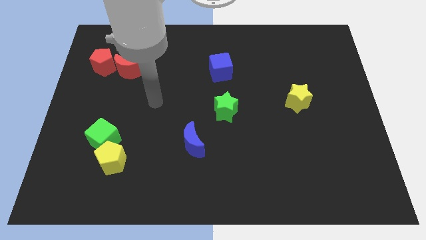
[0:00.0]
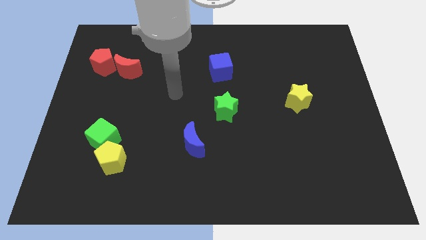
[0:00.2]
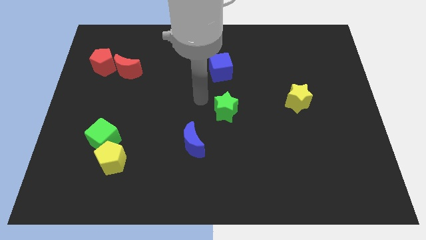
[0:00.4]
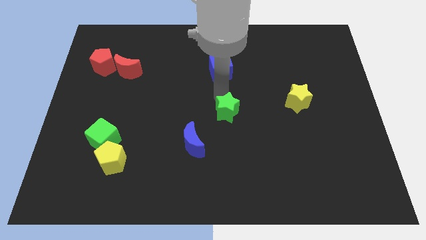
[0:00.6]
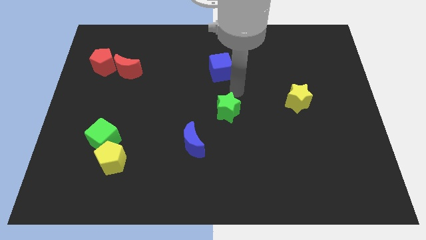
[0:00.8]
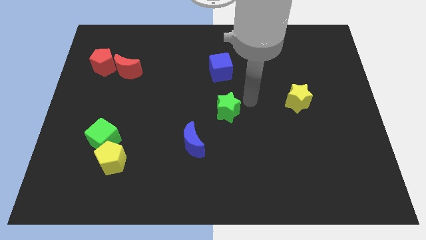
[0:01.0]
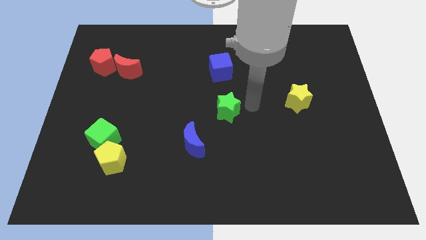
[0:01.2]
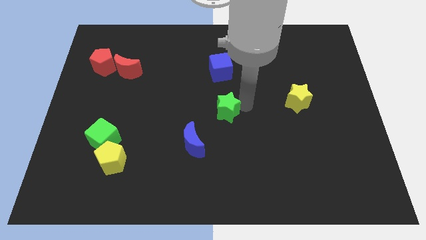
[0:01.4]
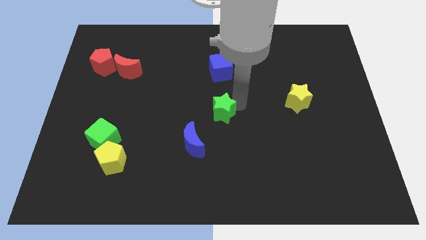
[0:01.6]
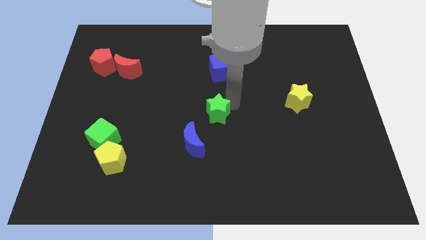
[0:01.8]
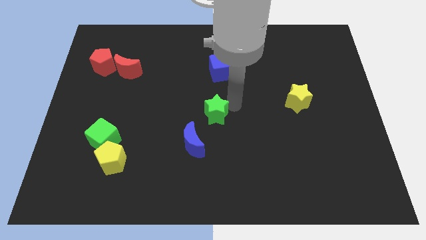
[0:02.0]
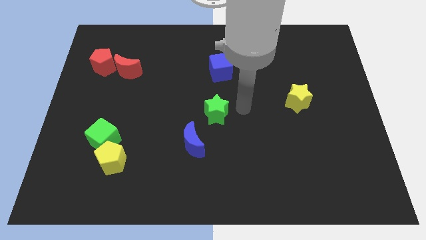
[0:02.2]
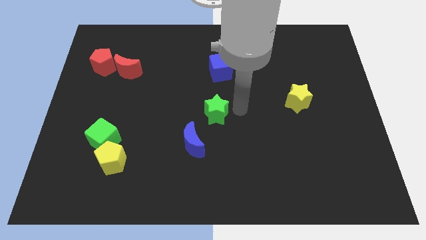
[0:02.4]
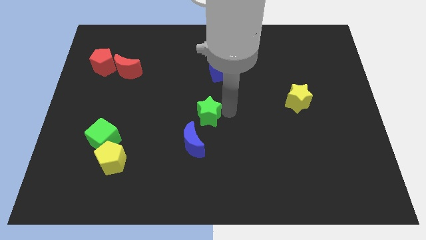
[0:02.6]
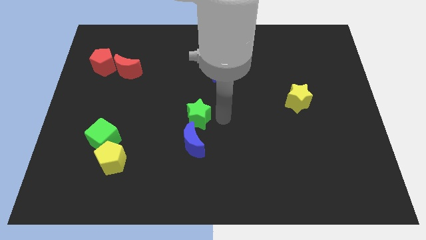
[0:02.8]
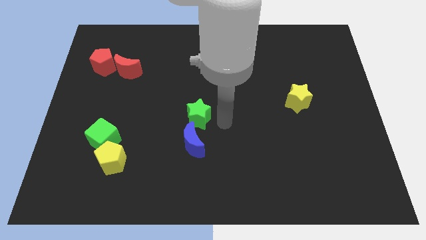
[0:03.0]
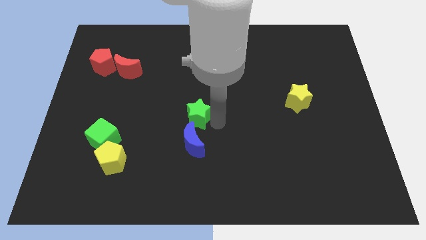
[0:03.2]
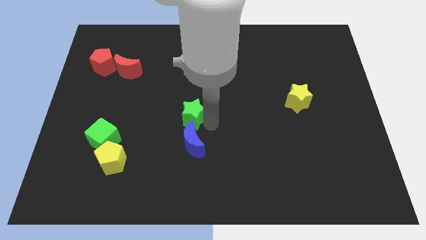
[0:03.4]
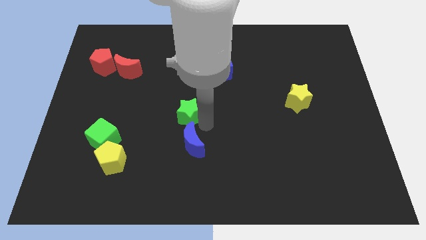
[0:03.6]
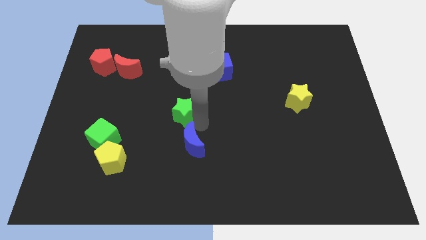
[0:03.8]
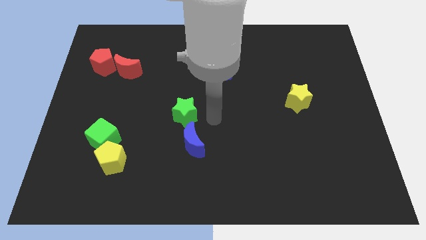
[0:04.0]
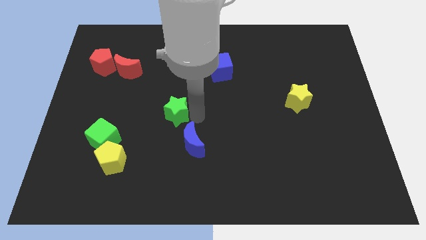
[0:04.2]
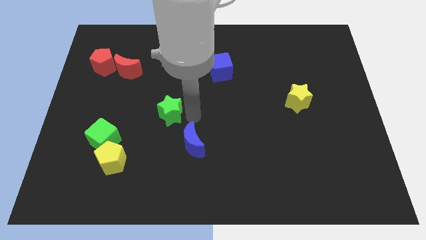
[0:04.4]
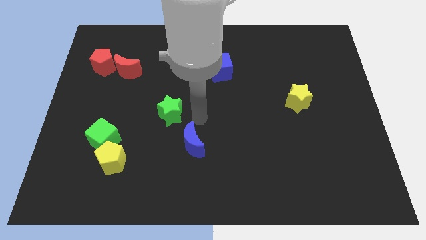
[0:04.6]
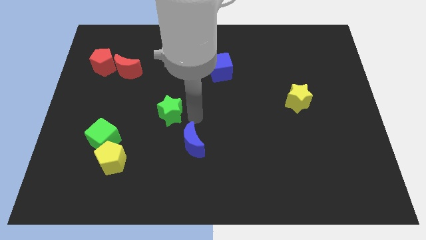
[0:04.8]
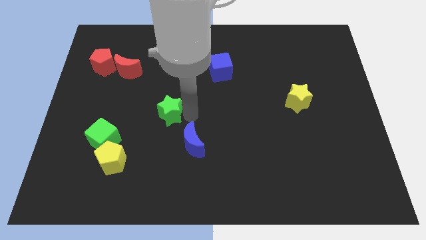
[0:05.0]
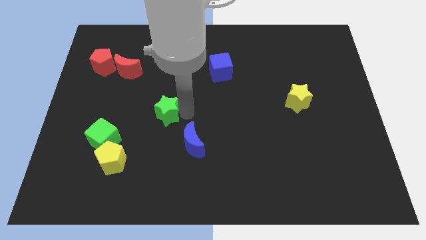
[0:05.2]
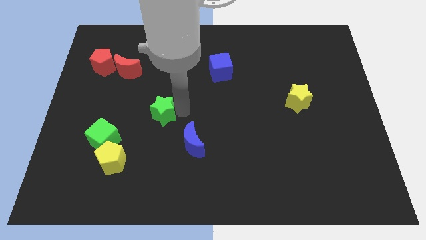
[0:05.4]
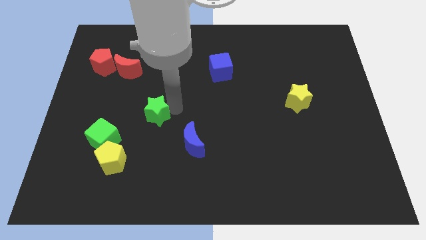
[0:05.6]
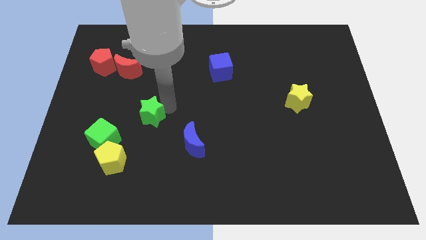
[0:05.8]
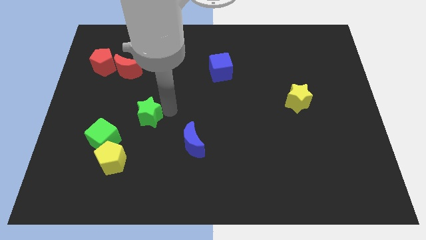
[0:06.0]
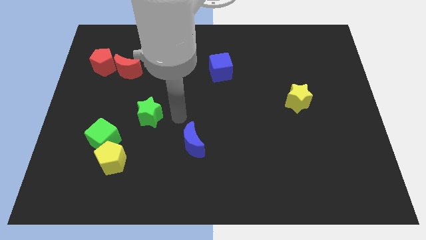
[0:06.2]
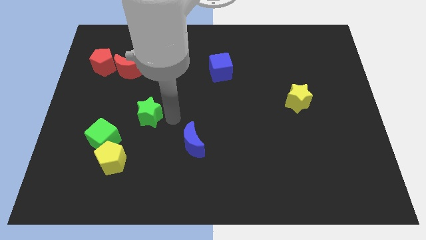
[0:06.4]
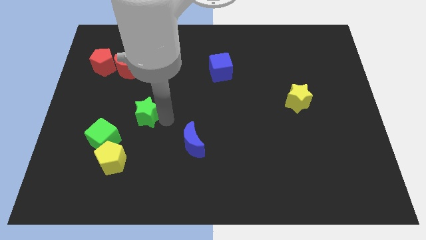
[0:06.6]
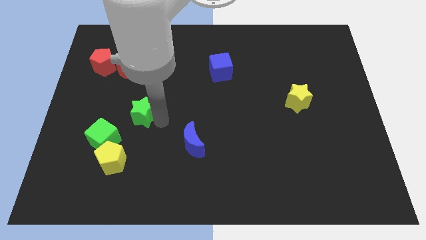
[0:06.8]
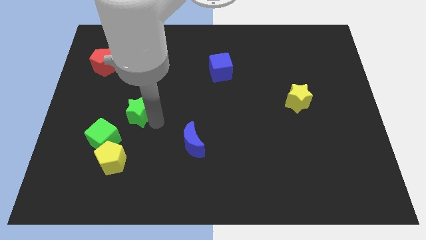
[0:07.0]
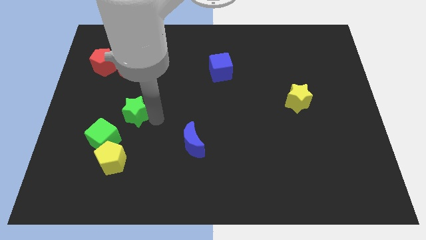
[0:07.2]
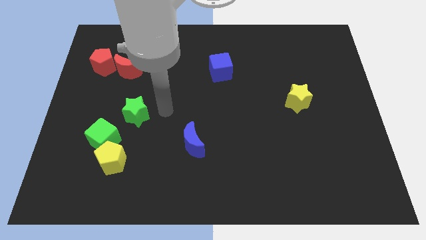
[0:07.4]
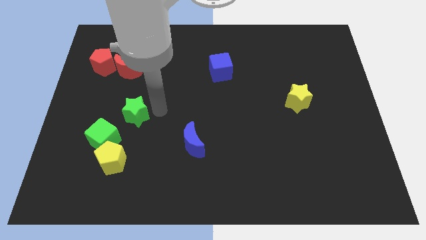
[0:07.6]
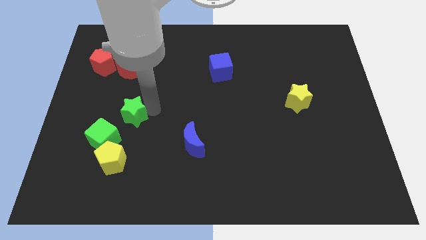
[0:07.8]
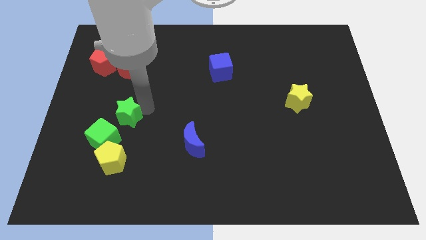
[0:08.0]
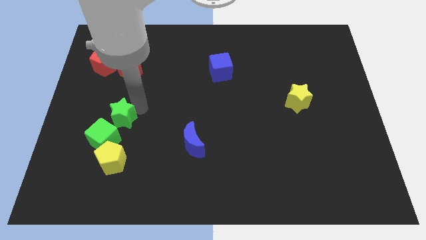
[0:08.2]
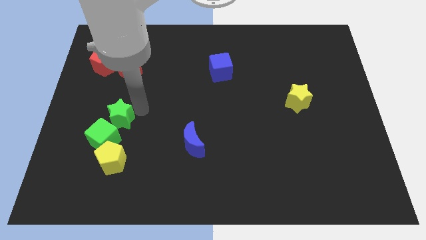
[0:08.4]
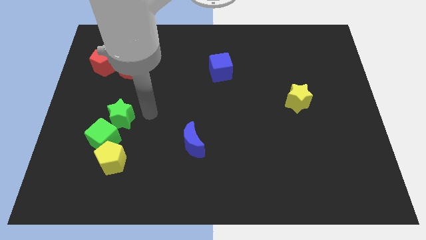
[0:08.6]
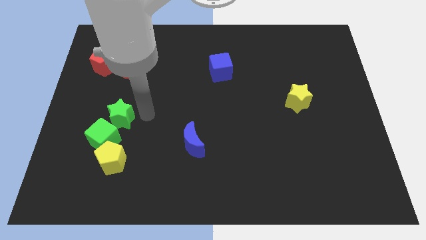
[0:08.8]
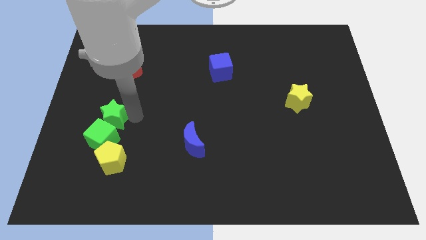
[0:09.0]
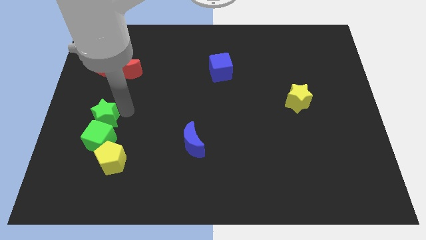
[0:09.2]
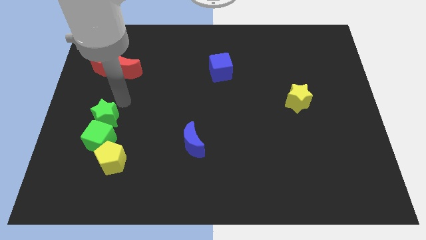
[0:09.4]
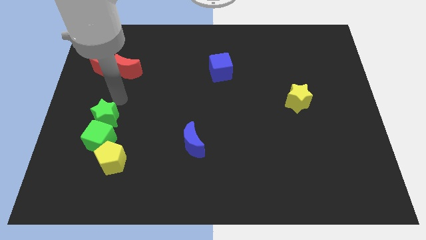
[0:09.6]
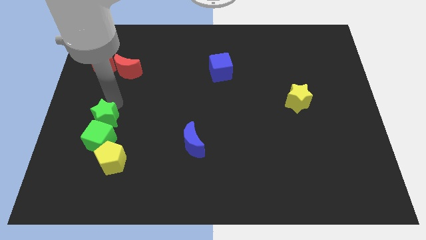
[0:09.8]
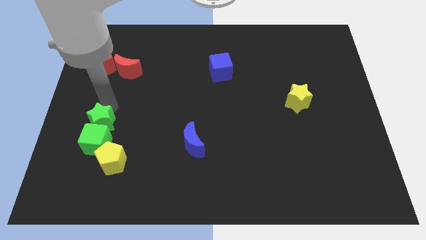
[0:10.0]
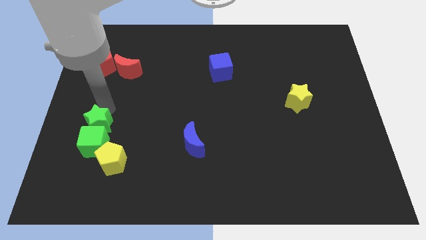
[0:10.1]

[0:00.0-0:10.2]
push the green star to the top left of the yellow pentagon
